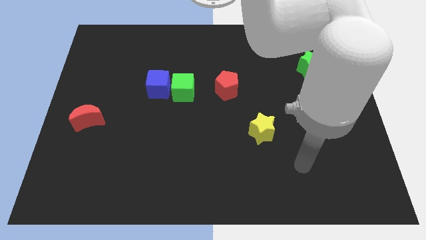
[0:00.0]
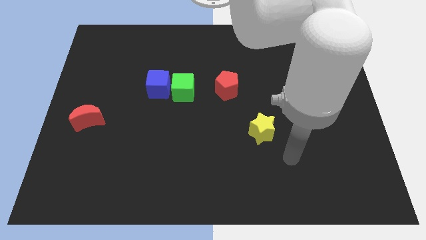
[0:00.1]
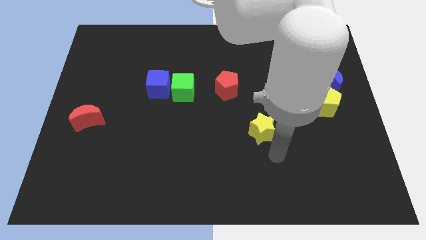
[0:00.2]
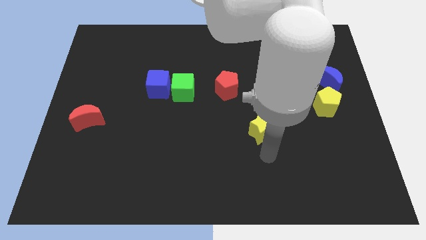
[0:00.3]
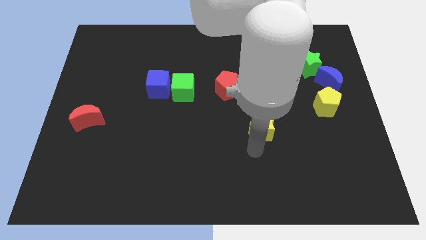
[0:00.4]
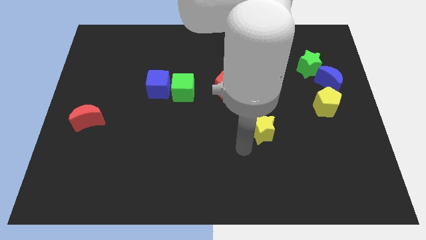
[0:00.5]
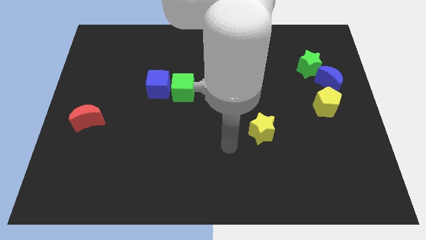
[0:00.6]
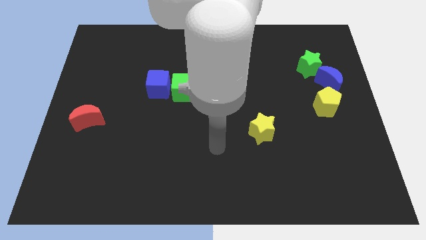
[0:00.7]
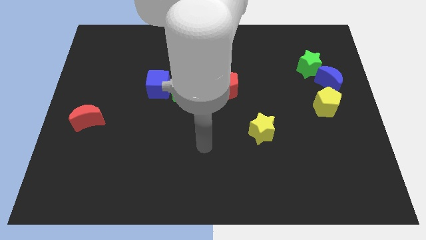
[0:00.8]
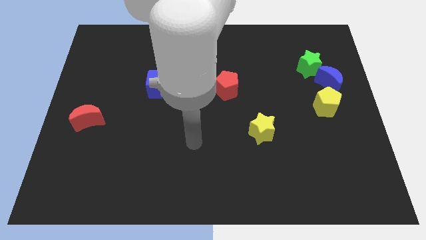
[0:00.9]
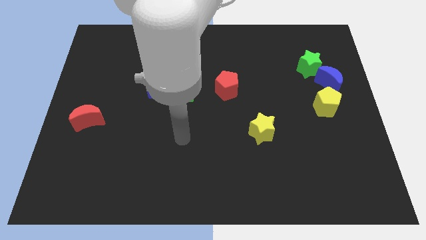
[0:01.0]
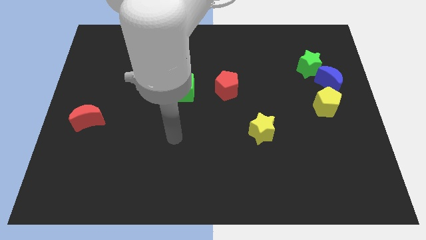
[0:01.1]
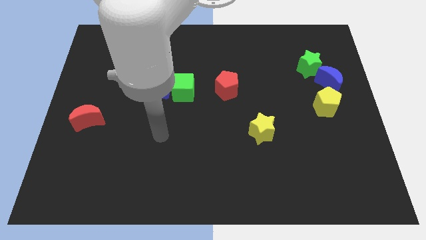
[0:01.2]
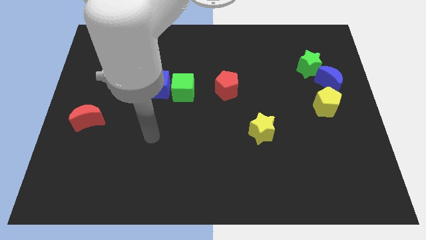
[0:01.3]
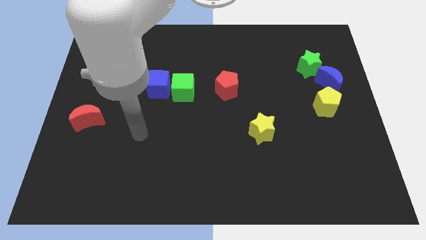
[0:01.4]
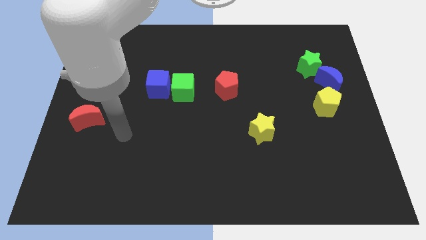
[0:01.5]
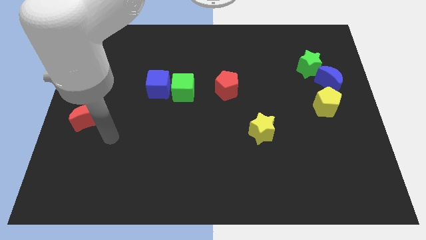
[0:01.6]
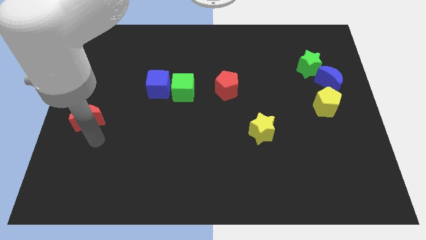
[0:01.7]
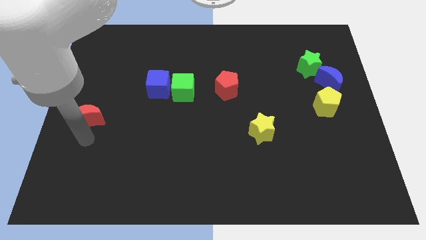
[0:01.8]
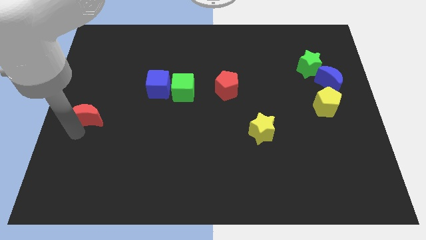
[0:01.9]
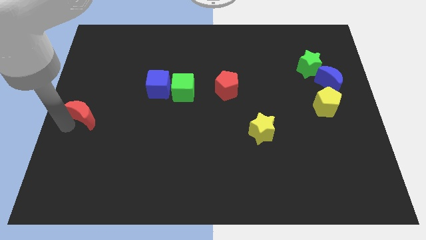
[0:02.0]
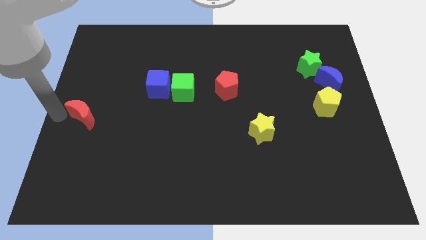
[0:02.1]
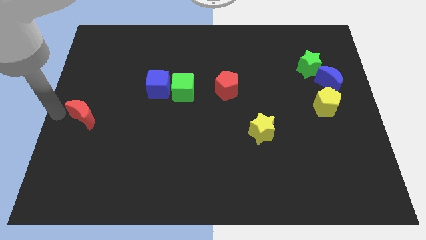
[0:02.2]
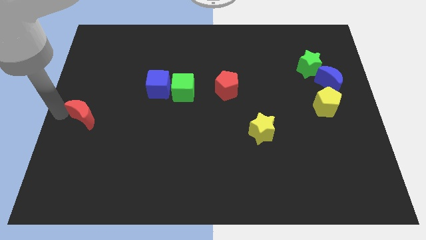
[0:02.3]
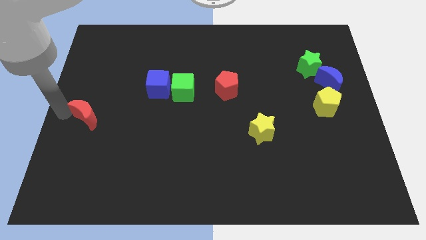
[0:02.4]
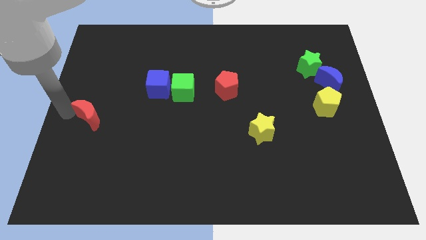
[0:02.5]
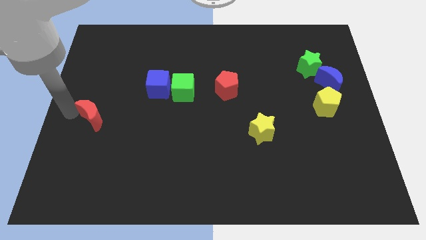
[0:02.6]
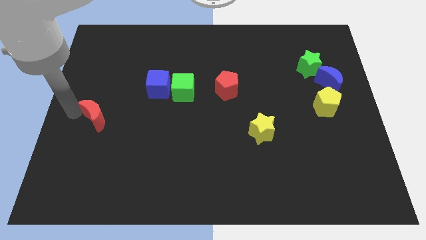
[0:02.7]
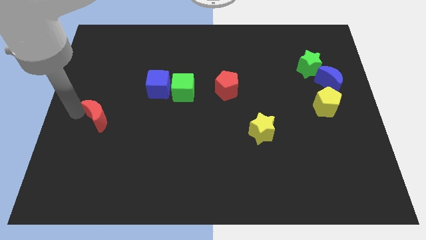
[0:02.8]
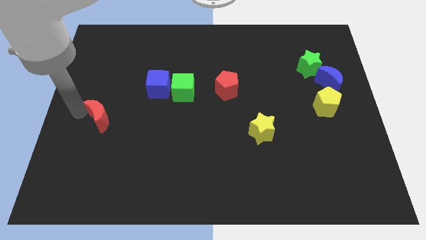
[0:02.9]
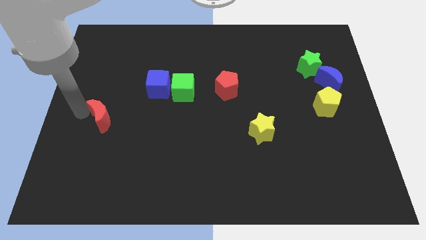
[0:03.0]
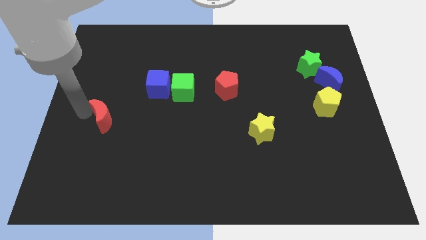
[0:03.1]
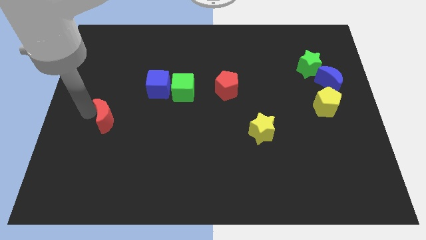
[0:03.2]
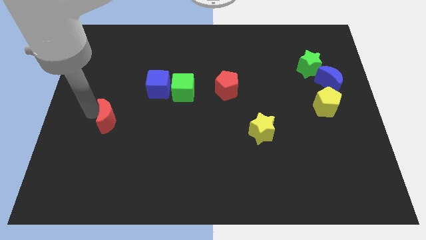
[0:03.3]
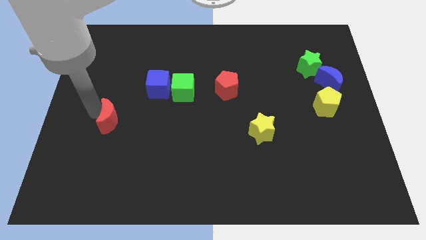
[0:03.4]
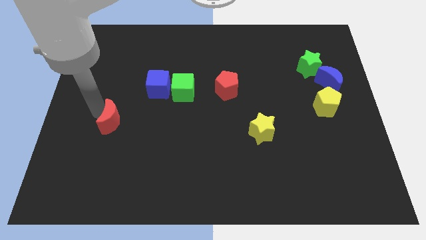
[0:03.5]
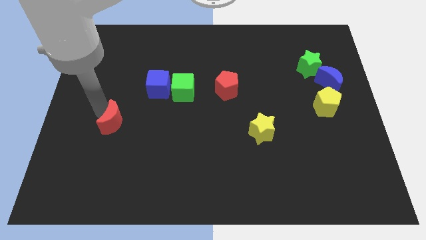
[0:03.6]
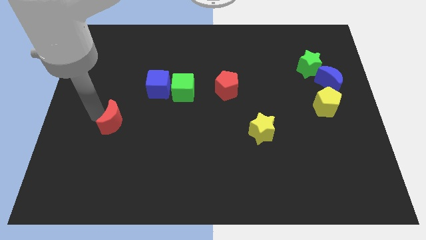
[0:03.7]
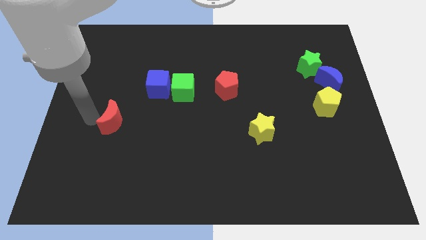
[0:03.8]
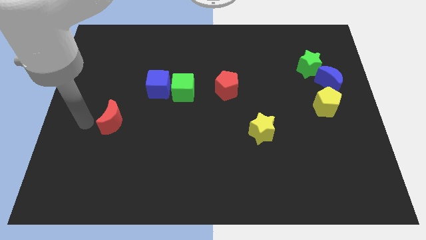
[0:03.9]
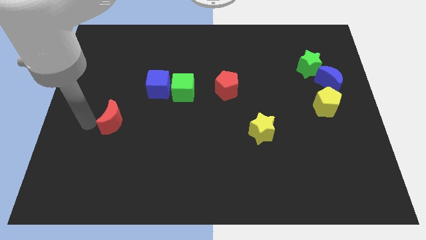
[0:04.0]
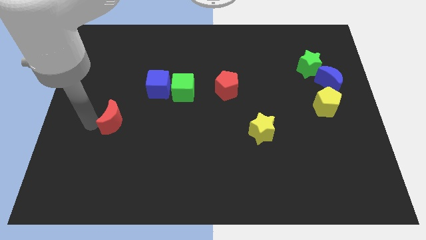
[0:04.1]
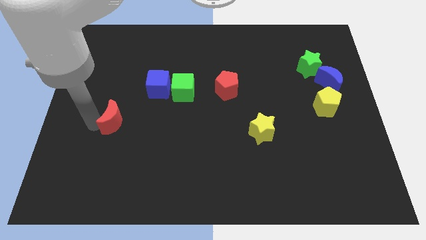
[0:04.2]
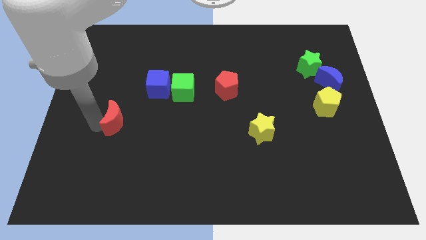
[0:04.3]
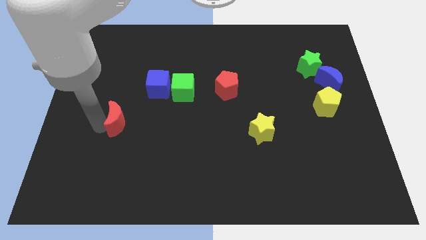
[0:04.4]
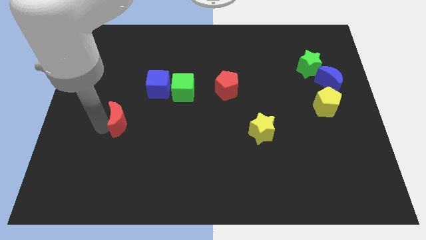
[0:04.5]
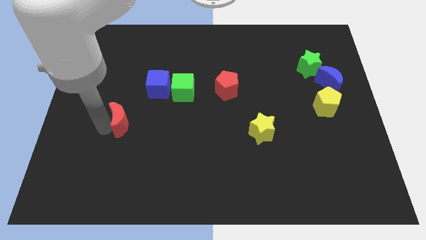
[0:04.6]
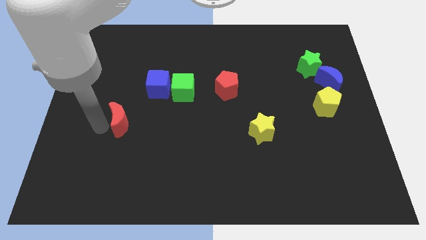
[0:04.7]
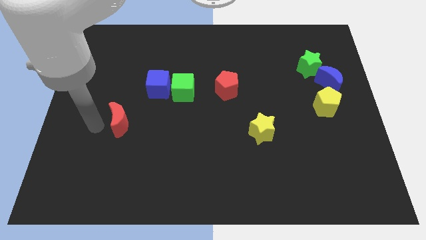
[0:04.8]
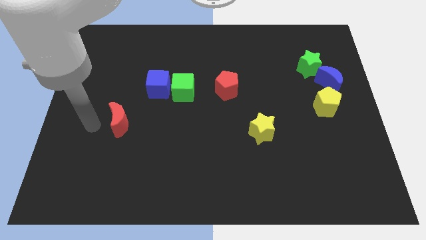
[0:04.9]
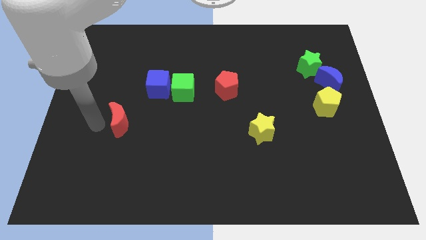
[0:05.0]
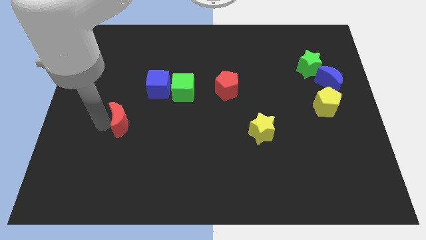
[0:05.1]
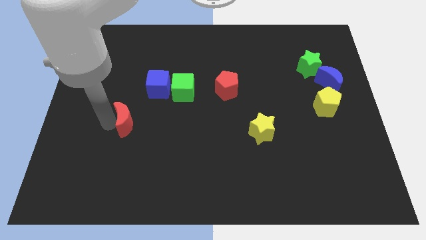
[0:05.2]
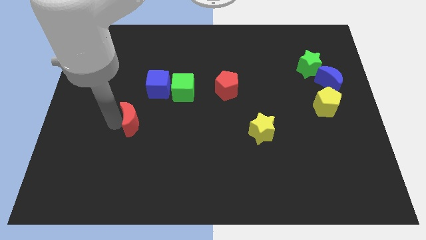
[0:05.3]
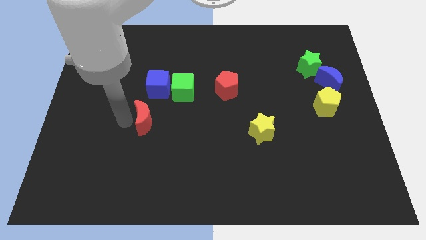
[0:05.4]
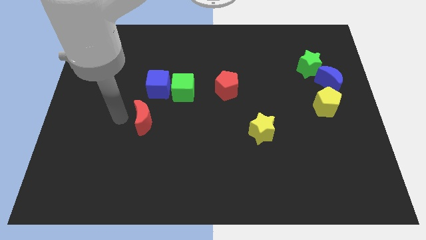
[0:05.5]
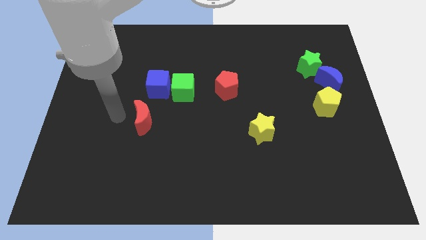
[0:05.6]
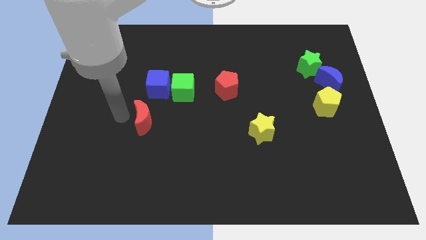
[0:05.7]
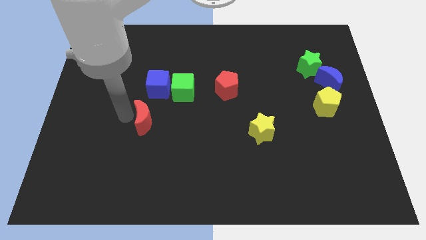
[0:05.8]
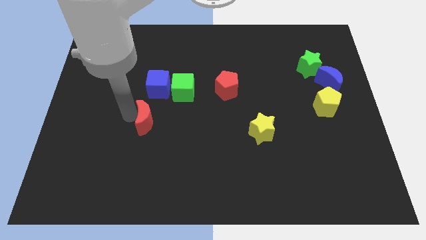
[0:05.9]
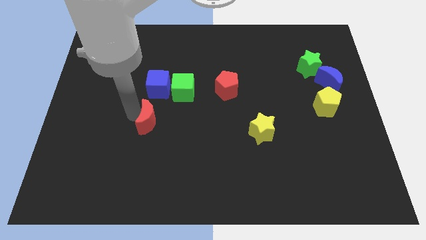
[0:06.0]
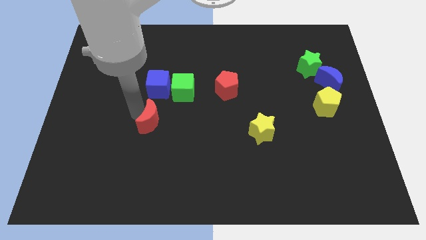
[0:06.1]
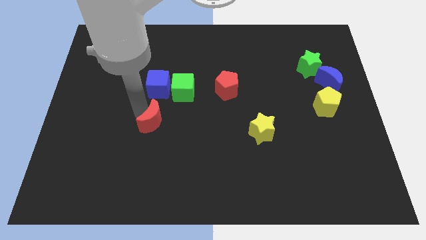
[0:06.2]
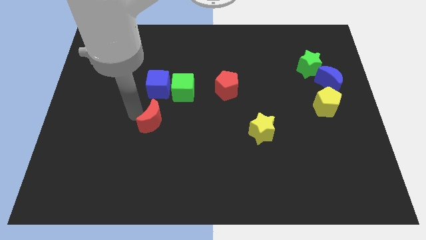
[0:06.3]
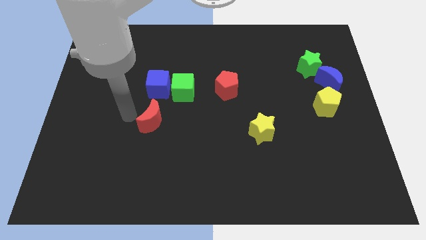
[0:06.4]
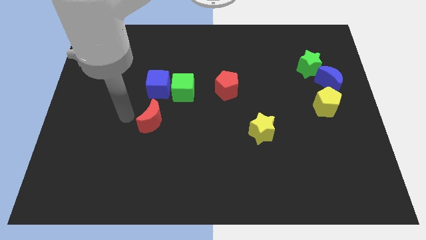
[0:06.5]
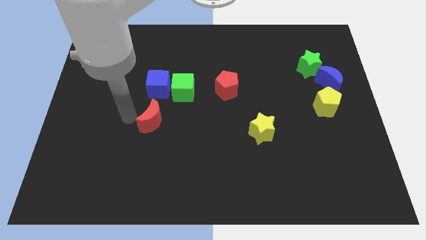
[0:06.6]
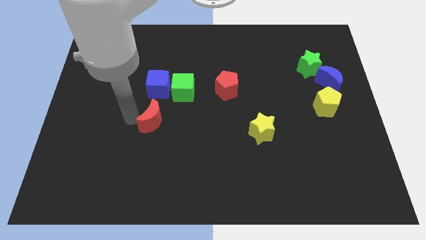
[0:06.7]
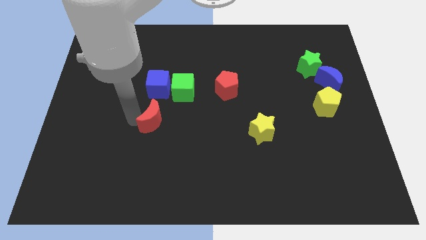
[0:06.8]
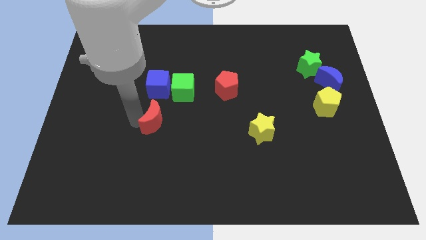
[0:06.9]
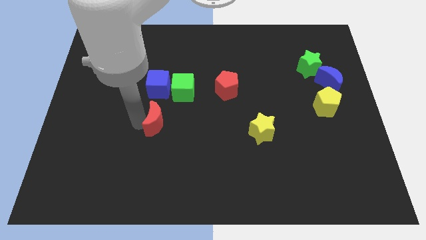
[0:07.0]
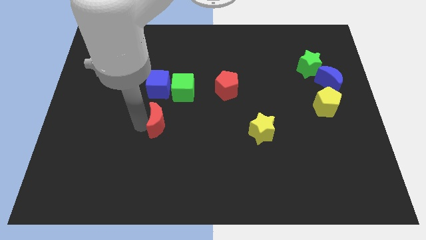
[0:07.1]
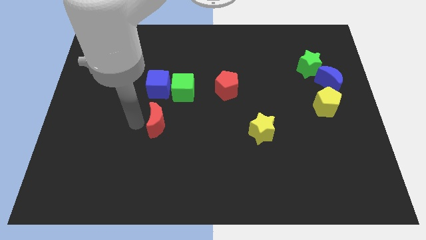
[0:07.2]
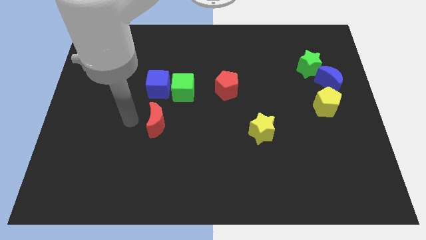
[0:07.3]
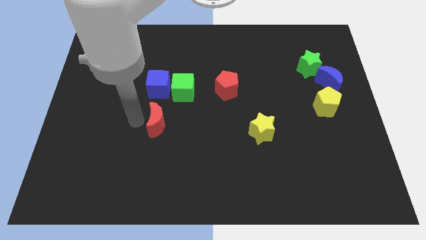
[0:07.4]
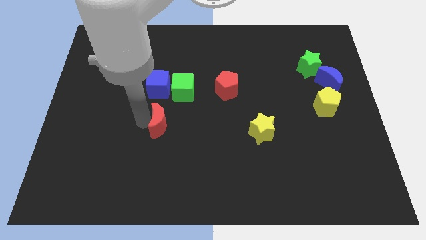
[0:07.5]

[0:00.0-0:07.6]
put the red moon below the green cube

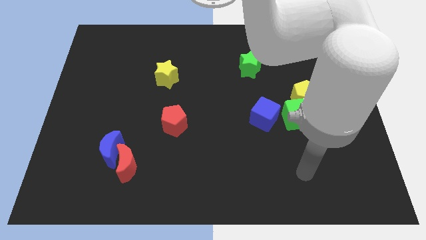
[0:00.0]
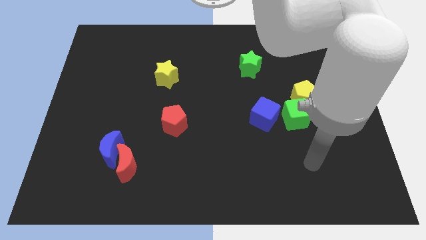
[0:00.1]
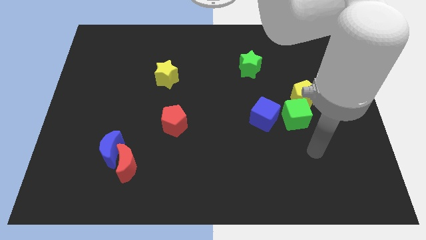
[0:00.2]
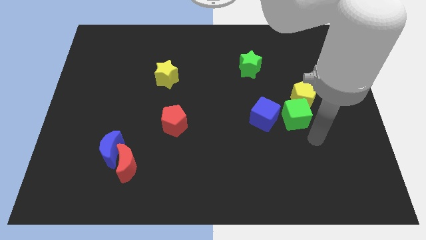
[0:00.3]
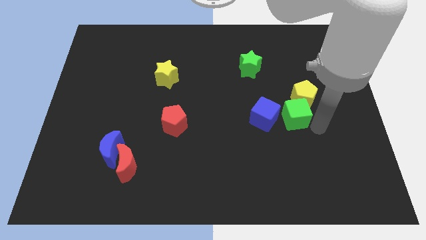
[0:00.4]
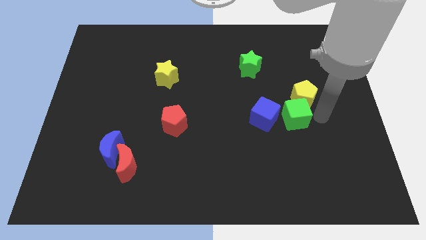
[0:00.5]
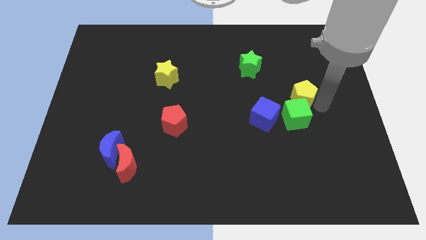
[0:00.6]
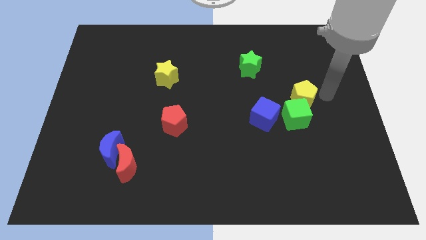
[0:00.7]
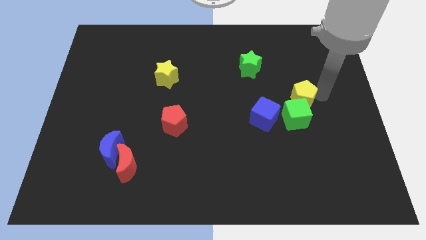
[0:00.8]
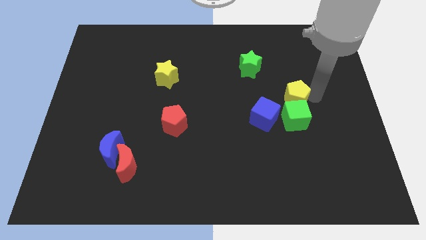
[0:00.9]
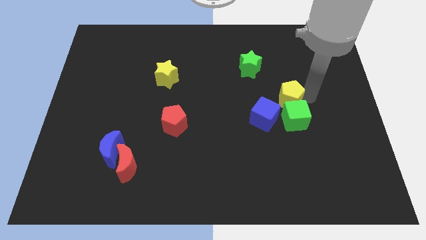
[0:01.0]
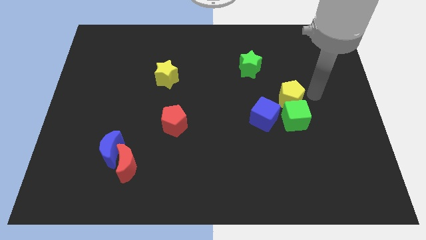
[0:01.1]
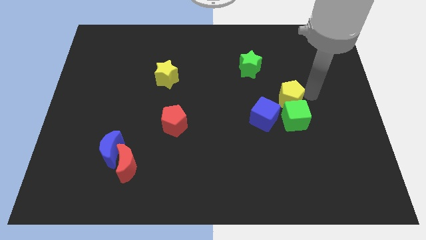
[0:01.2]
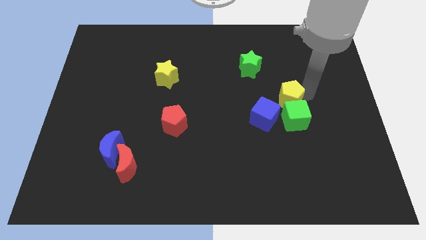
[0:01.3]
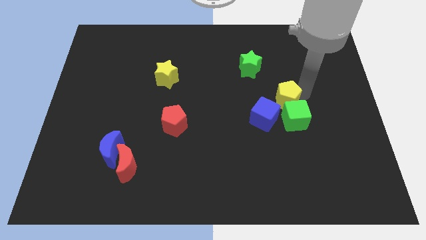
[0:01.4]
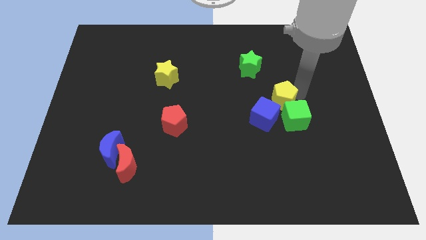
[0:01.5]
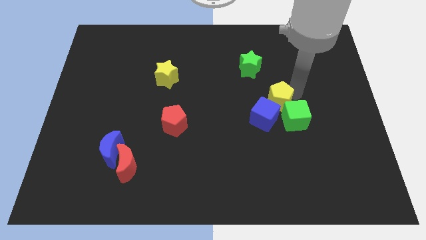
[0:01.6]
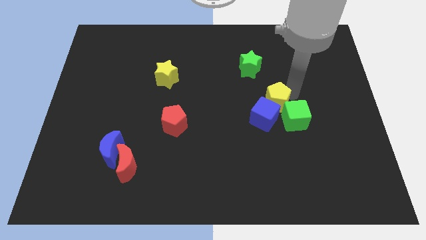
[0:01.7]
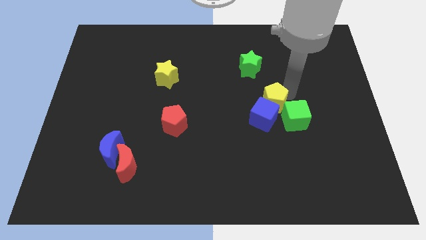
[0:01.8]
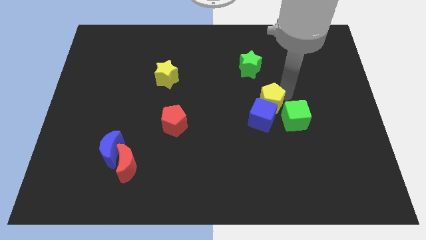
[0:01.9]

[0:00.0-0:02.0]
slide the yellow pentagon just left of the green cube
